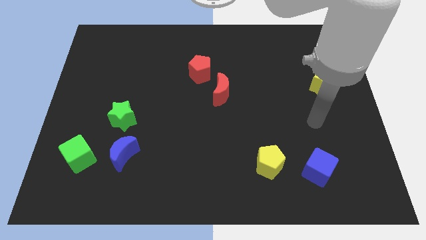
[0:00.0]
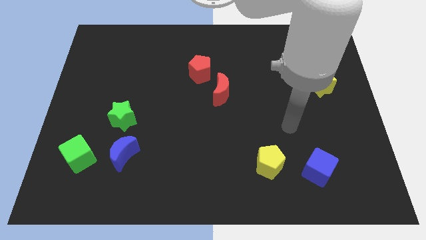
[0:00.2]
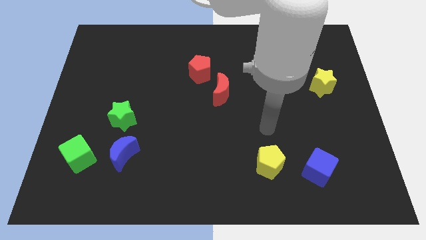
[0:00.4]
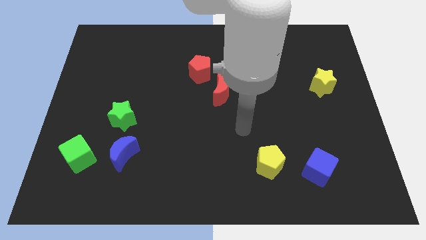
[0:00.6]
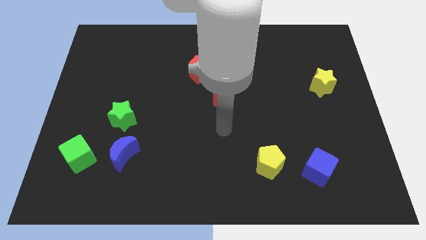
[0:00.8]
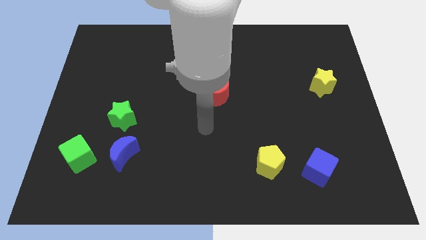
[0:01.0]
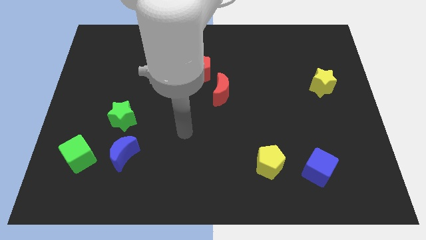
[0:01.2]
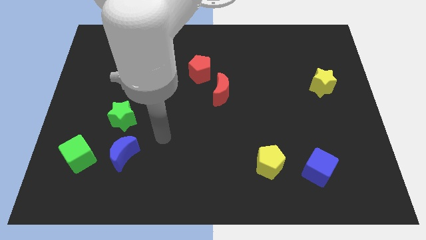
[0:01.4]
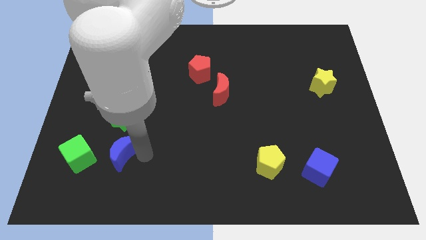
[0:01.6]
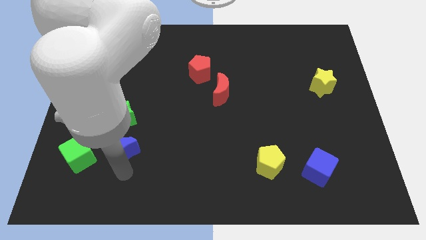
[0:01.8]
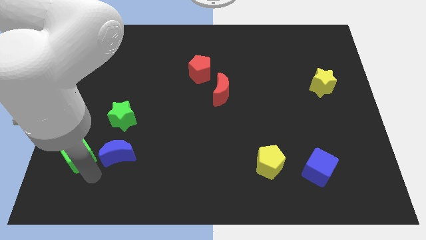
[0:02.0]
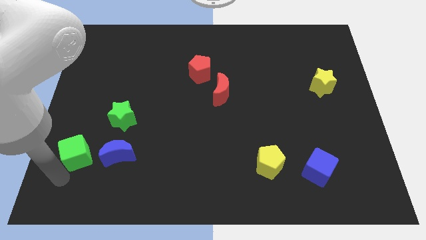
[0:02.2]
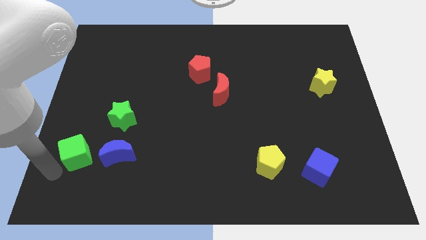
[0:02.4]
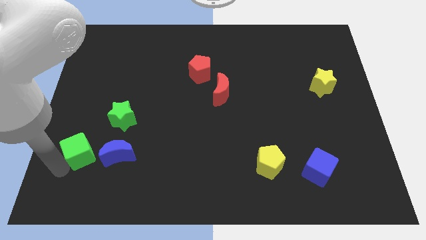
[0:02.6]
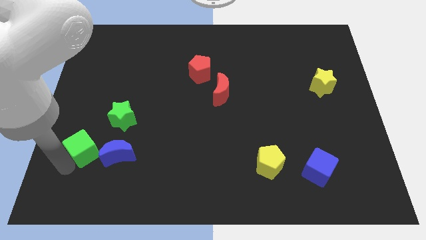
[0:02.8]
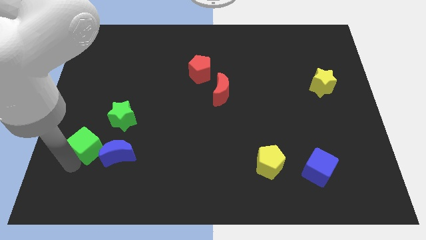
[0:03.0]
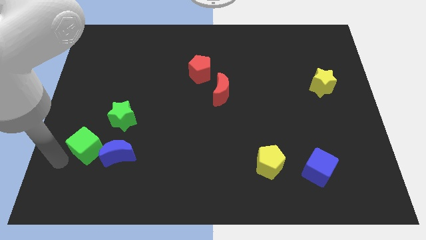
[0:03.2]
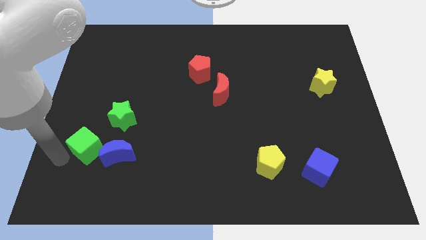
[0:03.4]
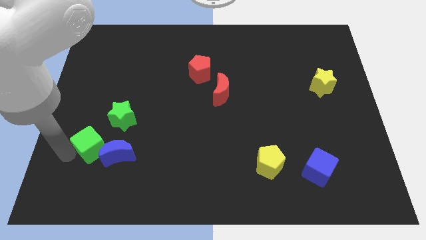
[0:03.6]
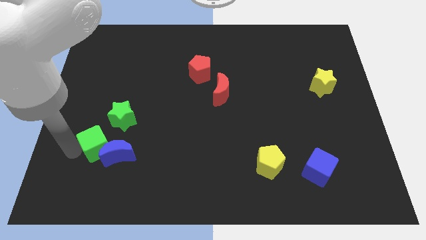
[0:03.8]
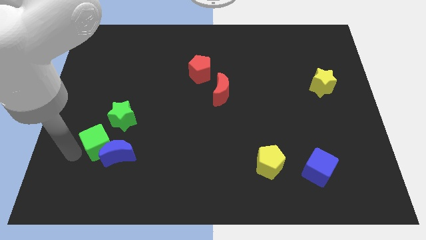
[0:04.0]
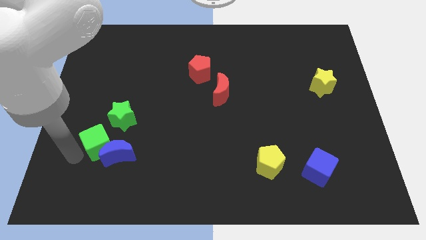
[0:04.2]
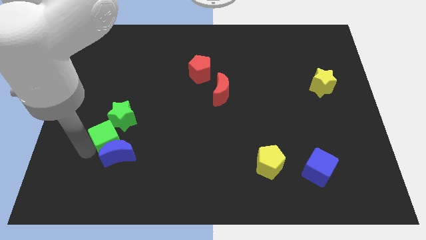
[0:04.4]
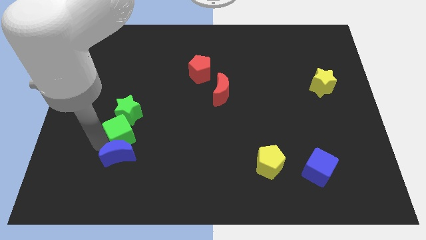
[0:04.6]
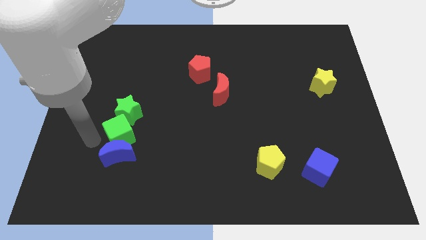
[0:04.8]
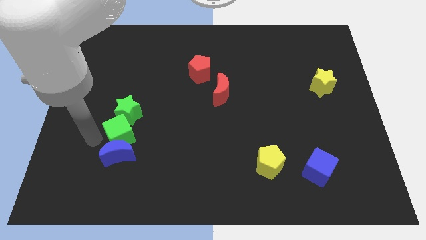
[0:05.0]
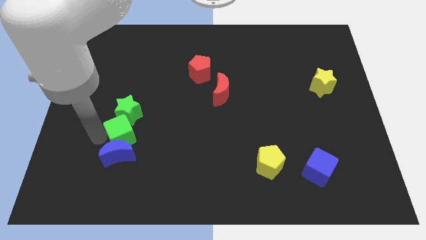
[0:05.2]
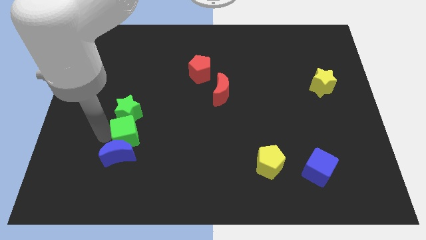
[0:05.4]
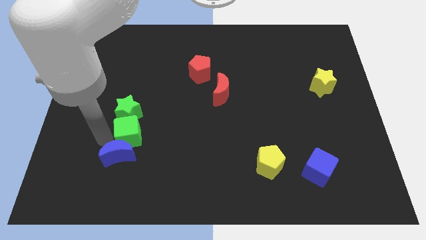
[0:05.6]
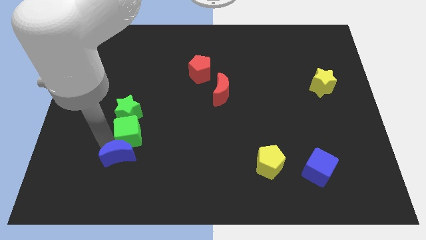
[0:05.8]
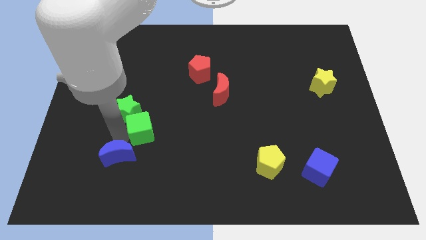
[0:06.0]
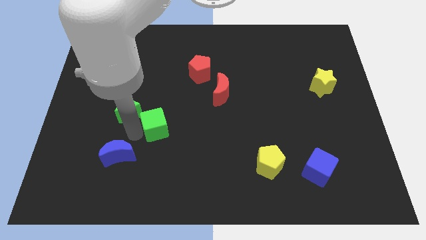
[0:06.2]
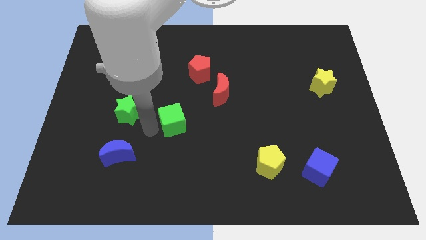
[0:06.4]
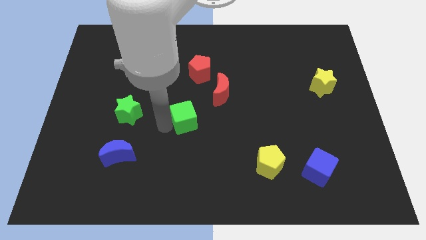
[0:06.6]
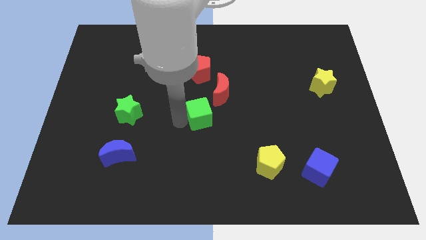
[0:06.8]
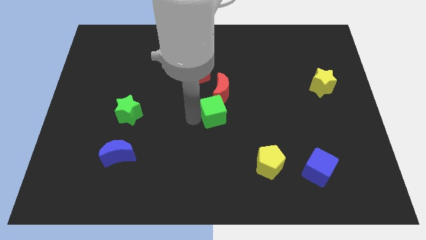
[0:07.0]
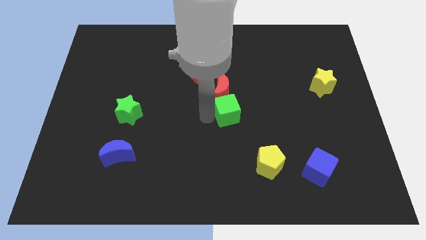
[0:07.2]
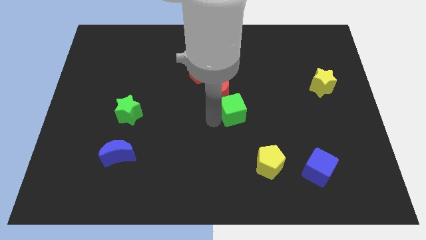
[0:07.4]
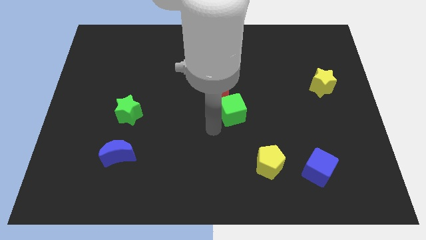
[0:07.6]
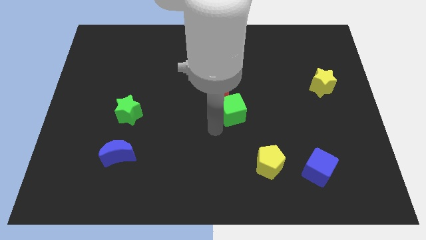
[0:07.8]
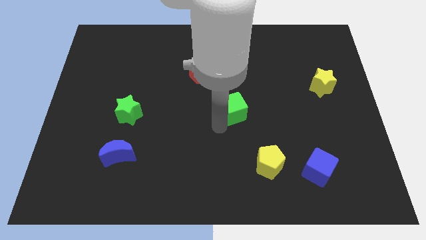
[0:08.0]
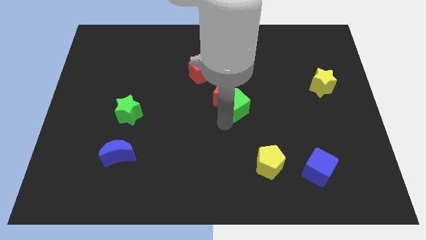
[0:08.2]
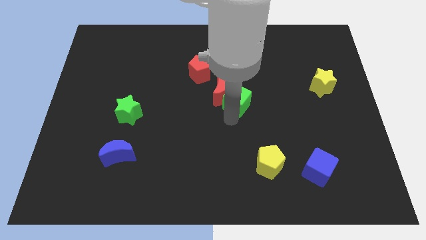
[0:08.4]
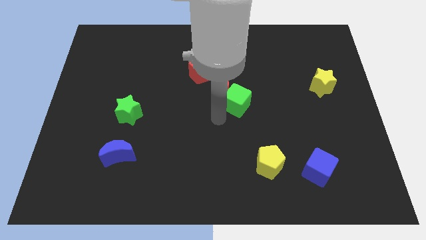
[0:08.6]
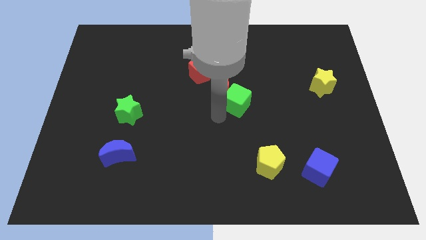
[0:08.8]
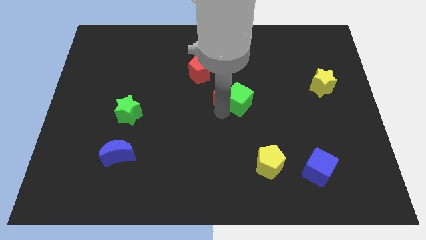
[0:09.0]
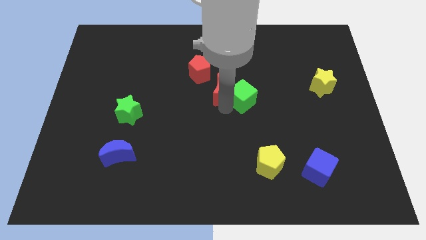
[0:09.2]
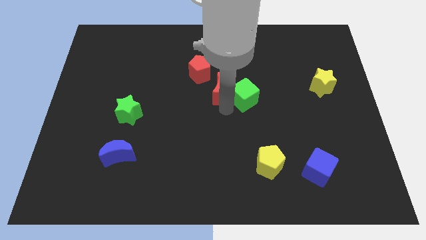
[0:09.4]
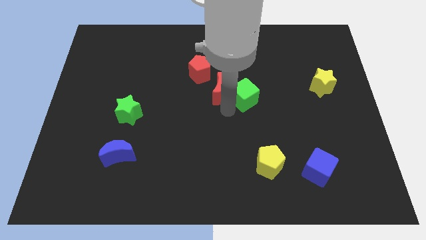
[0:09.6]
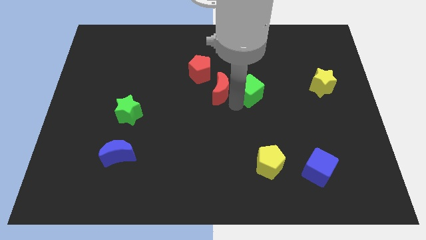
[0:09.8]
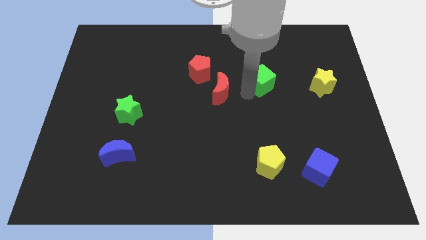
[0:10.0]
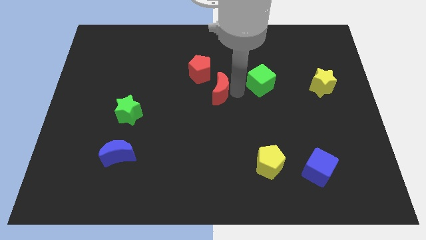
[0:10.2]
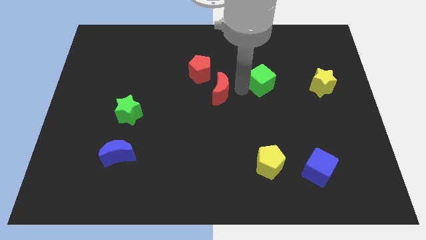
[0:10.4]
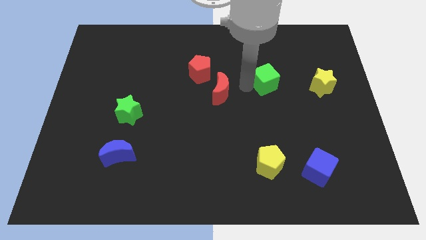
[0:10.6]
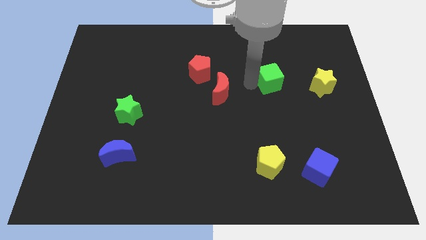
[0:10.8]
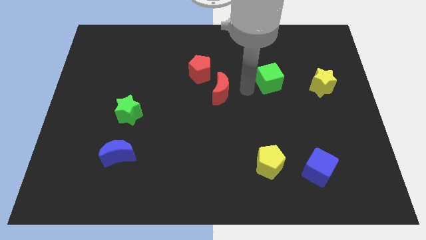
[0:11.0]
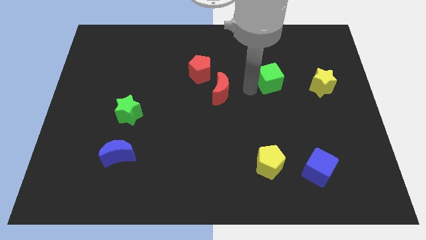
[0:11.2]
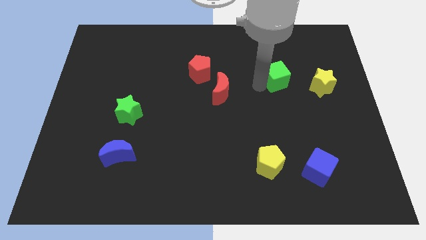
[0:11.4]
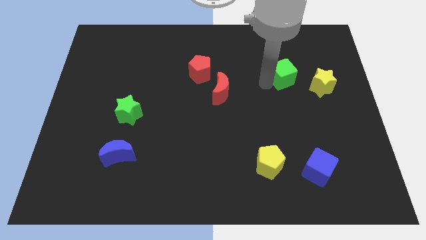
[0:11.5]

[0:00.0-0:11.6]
slide the green cube diagonally up and to the left of the yellow star

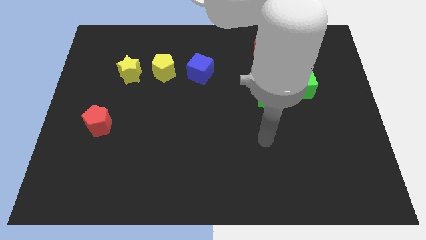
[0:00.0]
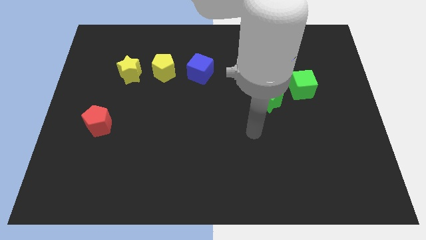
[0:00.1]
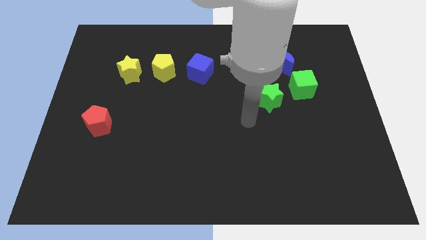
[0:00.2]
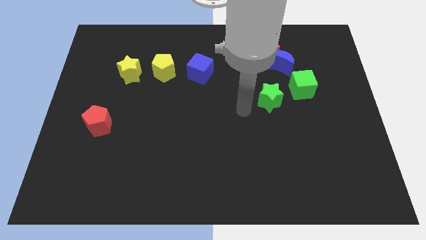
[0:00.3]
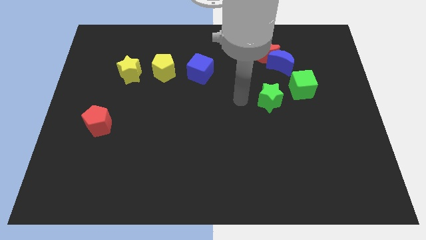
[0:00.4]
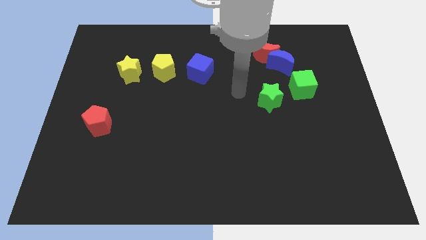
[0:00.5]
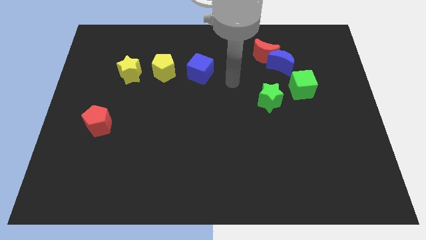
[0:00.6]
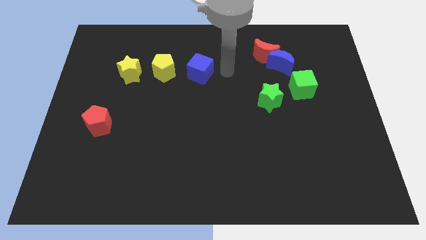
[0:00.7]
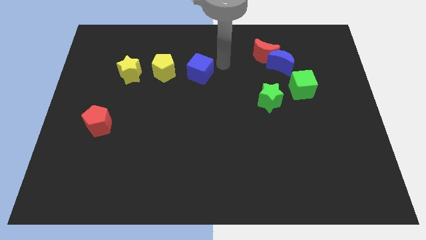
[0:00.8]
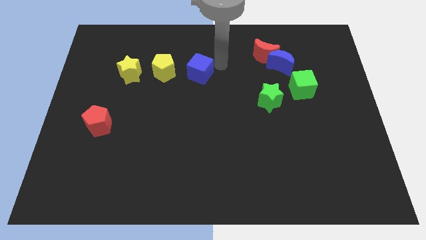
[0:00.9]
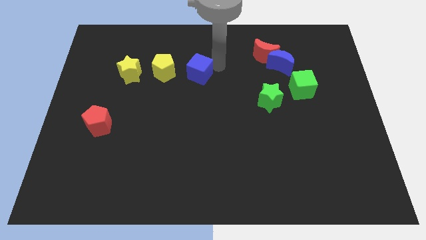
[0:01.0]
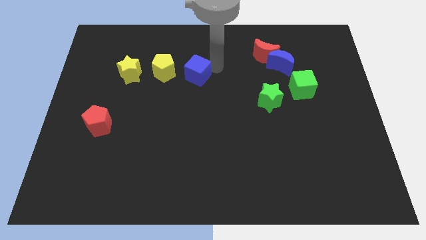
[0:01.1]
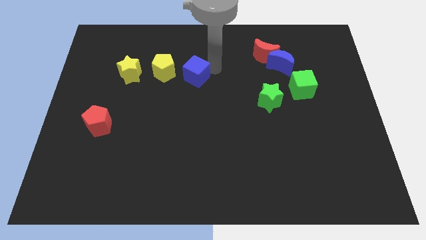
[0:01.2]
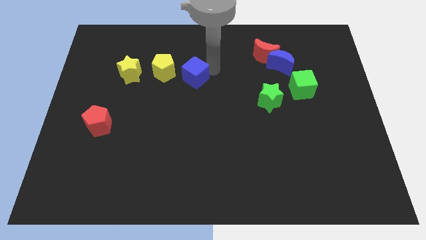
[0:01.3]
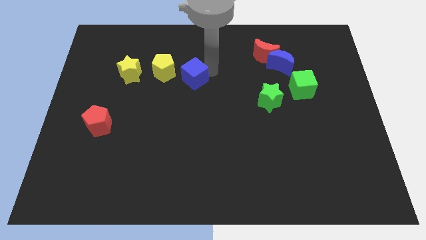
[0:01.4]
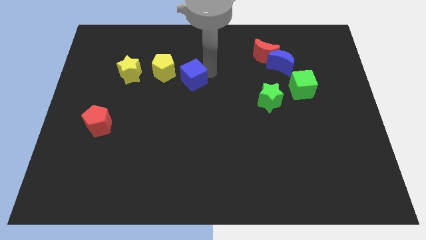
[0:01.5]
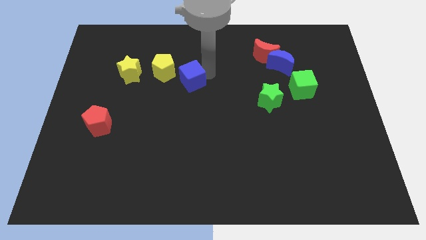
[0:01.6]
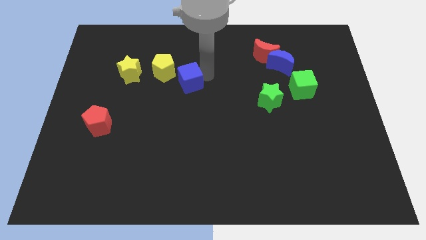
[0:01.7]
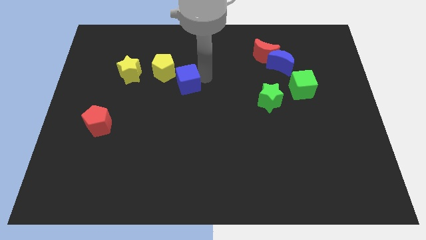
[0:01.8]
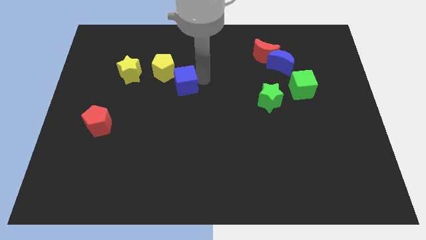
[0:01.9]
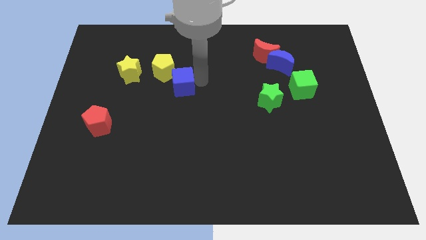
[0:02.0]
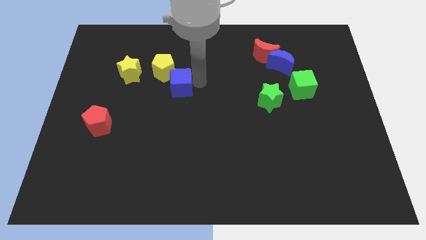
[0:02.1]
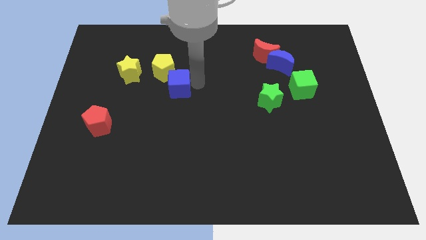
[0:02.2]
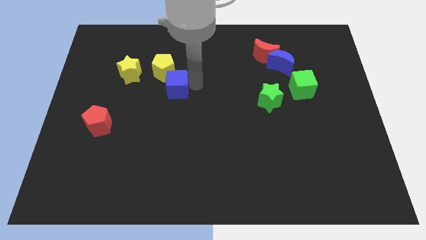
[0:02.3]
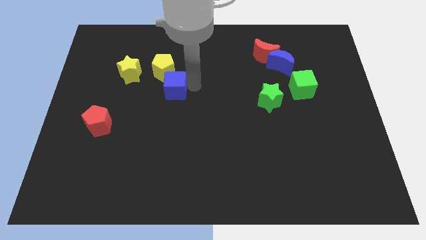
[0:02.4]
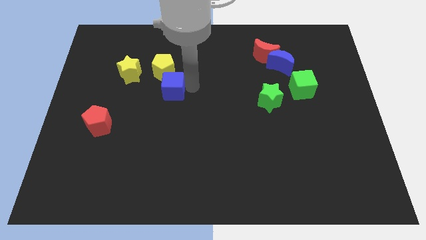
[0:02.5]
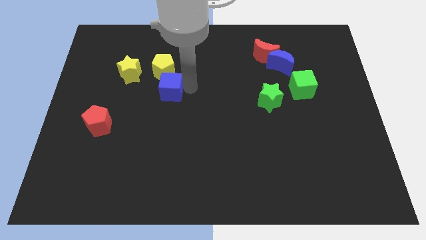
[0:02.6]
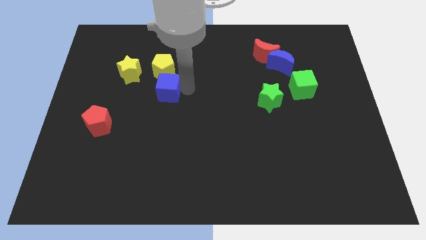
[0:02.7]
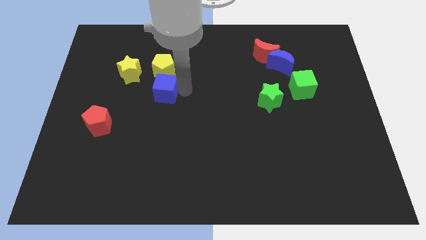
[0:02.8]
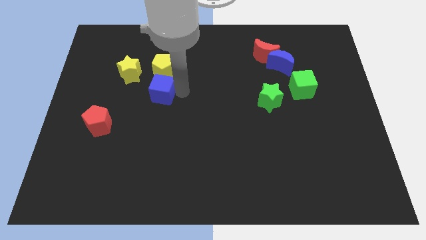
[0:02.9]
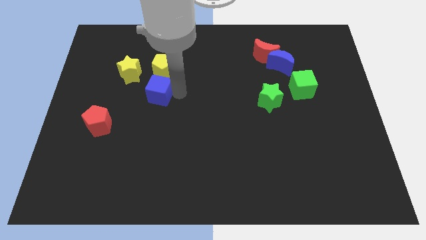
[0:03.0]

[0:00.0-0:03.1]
slide the blue cube diagonally down and to the left of the yellow pentagon
